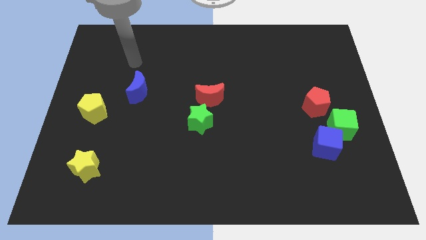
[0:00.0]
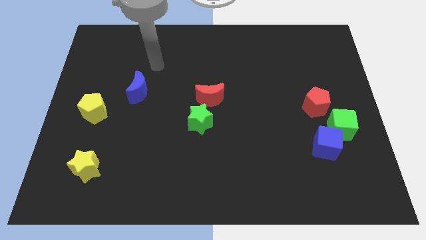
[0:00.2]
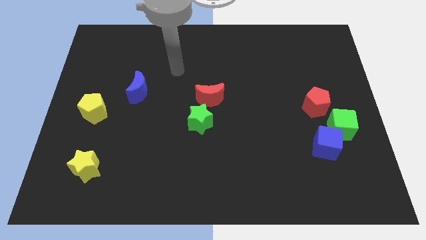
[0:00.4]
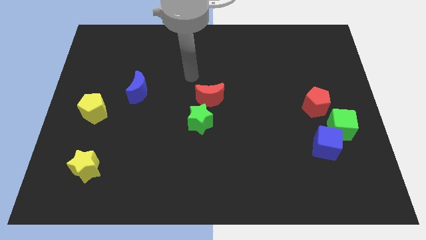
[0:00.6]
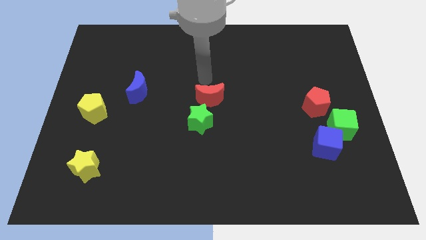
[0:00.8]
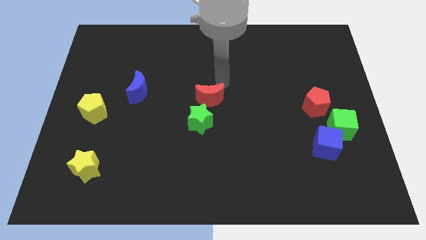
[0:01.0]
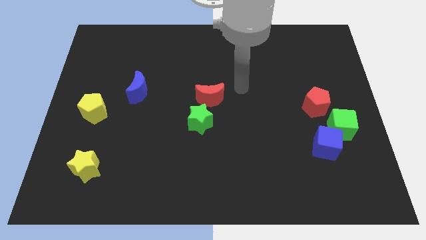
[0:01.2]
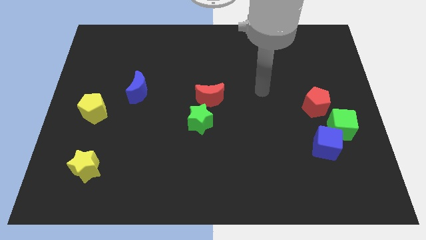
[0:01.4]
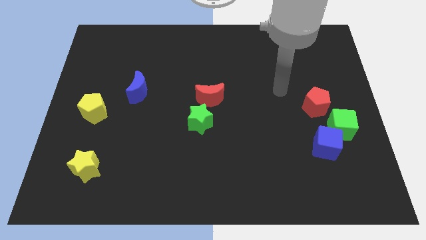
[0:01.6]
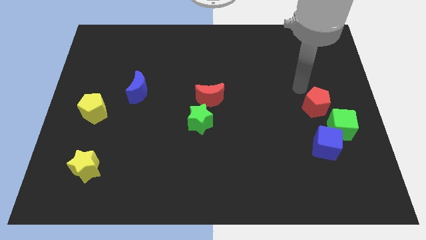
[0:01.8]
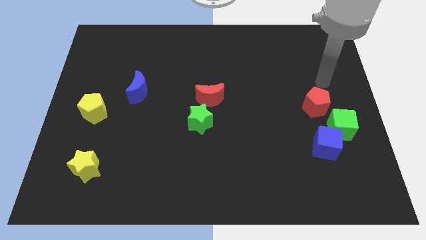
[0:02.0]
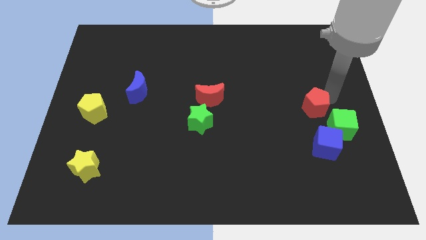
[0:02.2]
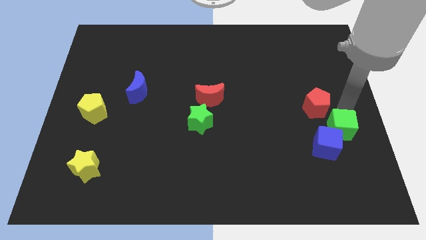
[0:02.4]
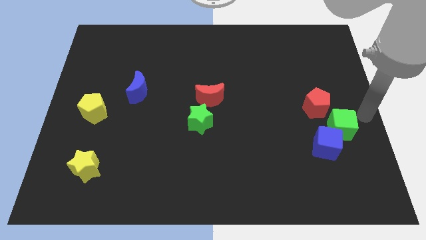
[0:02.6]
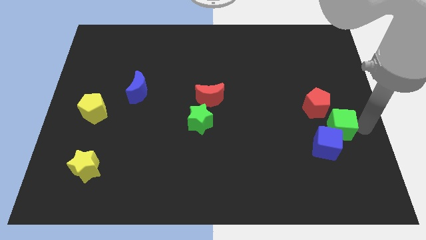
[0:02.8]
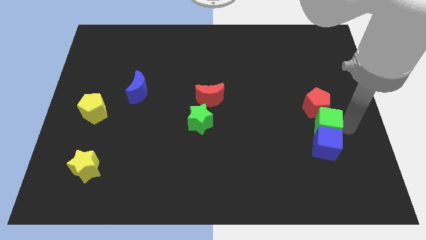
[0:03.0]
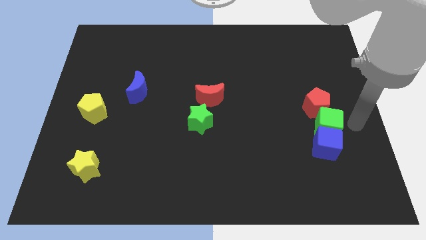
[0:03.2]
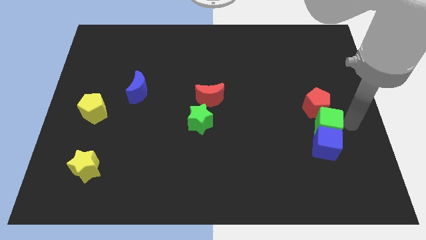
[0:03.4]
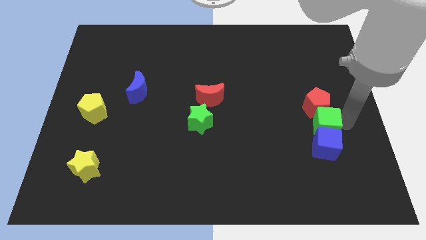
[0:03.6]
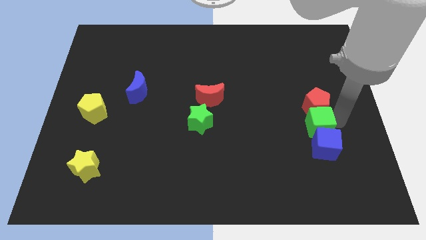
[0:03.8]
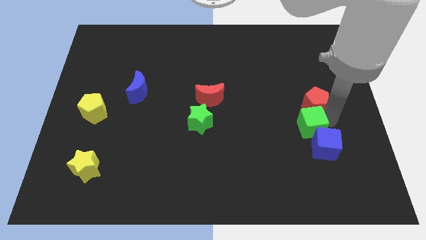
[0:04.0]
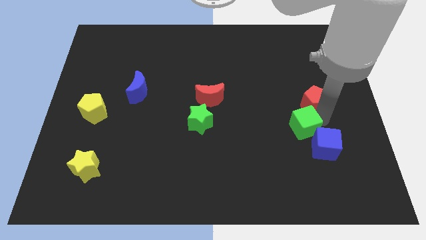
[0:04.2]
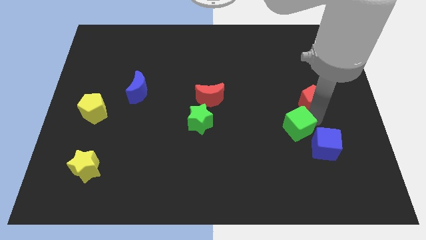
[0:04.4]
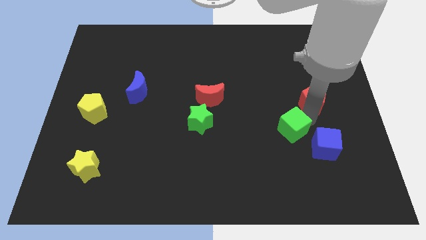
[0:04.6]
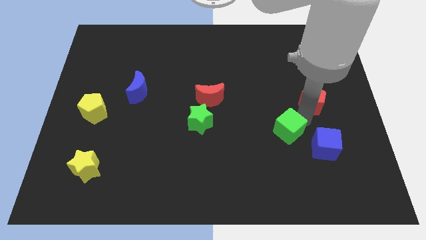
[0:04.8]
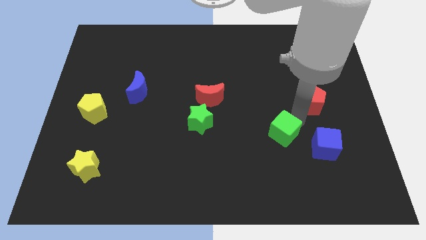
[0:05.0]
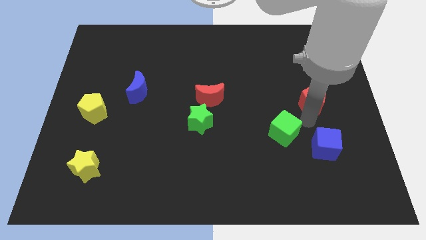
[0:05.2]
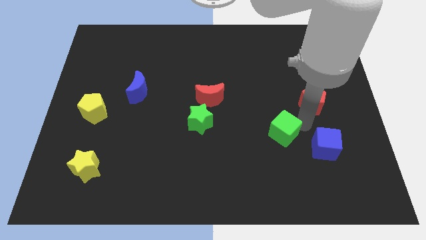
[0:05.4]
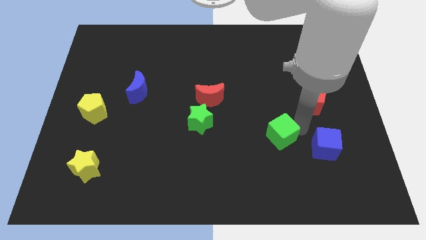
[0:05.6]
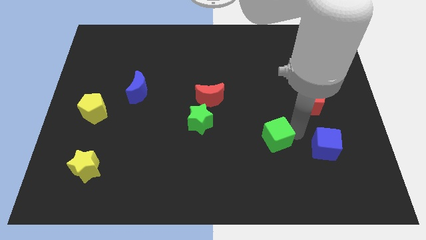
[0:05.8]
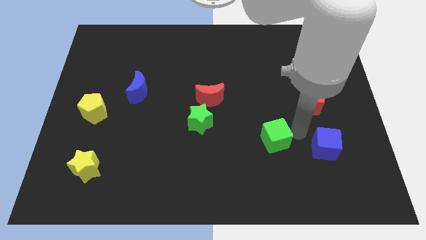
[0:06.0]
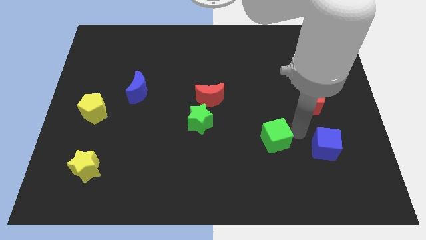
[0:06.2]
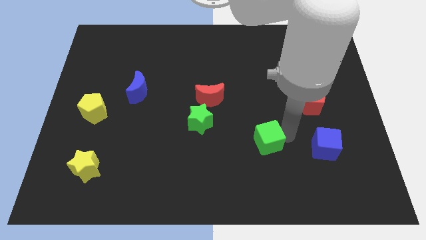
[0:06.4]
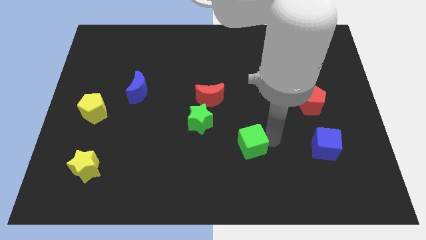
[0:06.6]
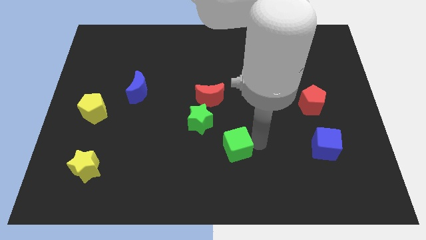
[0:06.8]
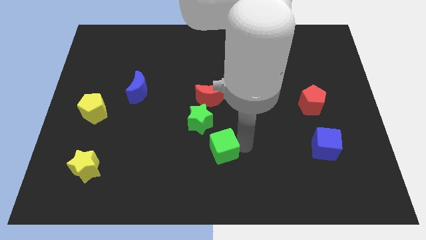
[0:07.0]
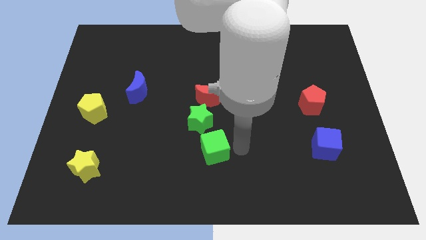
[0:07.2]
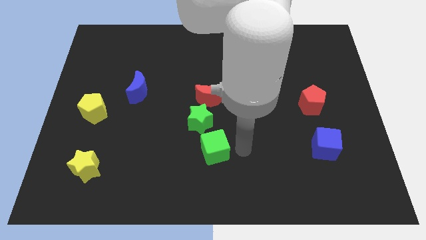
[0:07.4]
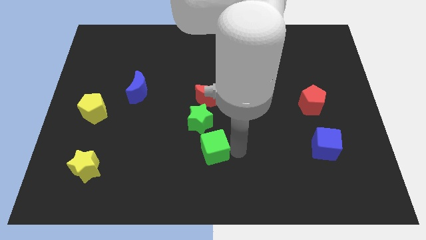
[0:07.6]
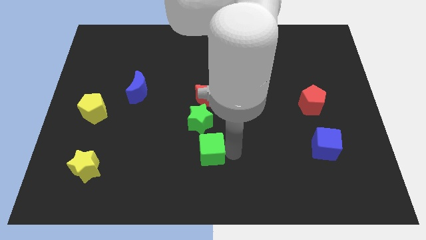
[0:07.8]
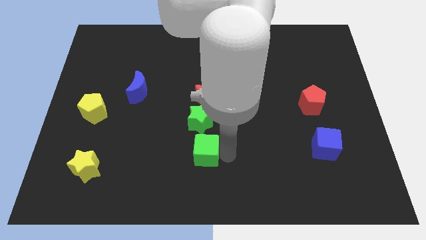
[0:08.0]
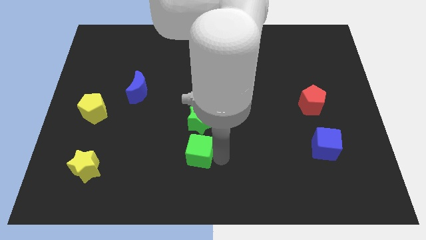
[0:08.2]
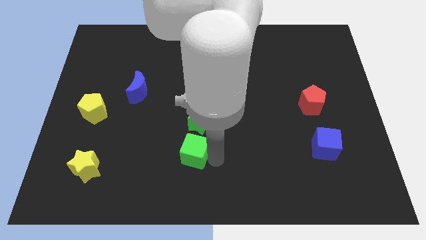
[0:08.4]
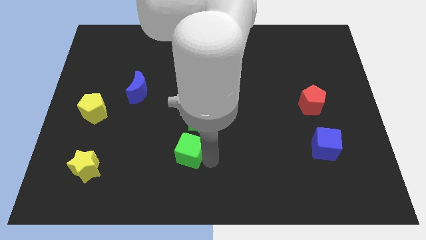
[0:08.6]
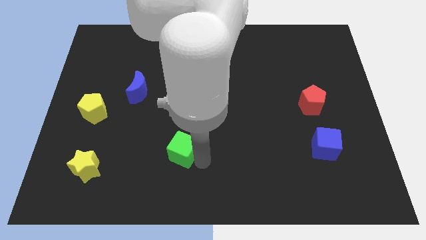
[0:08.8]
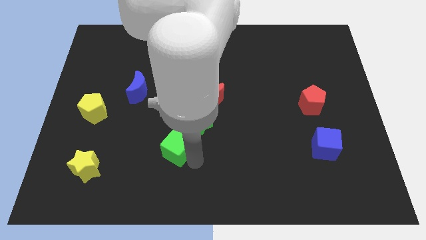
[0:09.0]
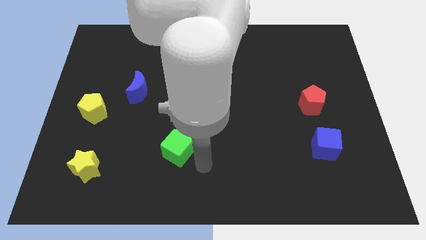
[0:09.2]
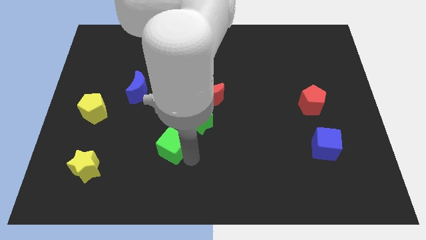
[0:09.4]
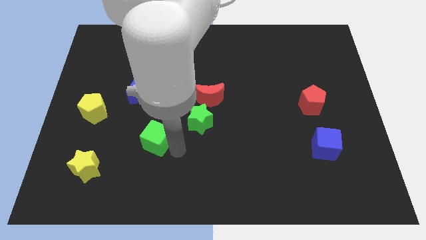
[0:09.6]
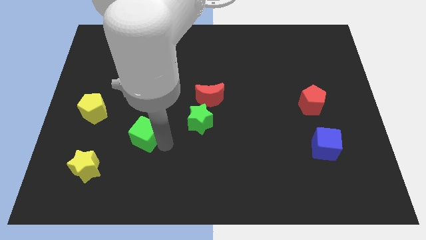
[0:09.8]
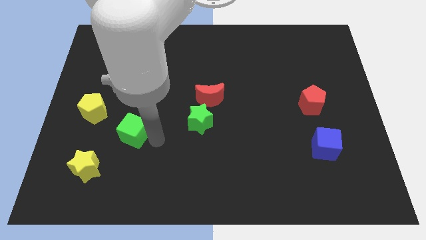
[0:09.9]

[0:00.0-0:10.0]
put the green cube to the bottom right of the yellow pentagon

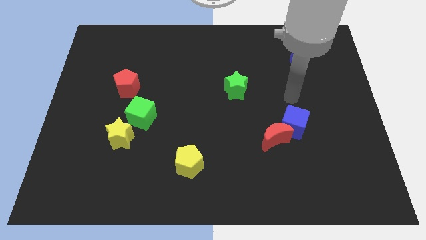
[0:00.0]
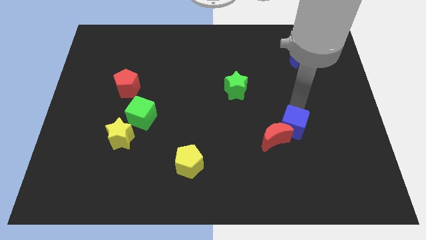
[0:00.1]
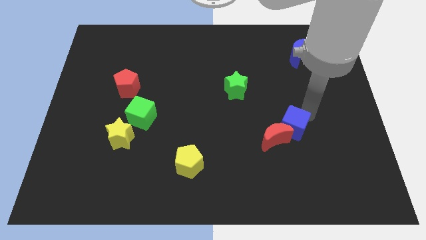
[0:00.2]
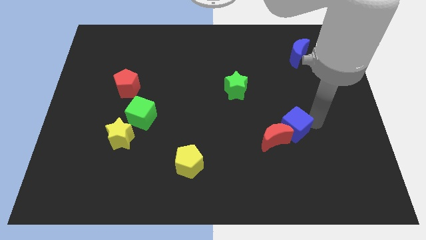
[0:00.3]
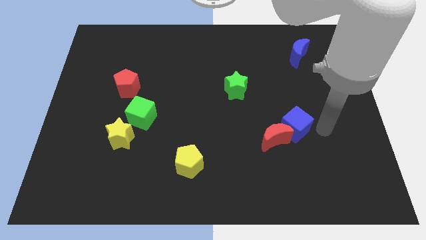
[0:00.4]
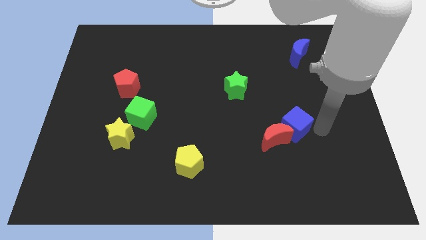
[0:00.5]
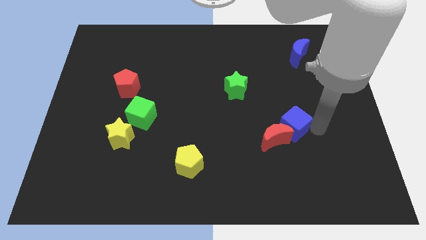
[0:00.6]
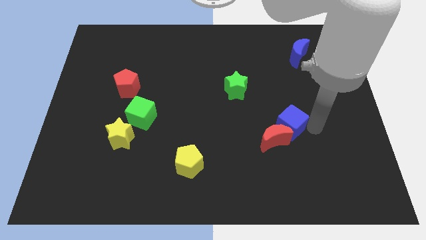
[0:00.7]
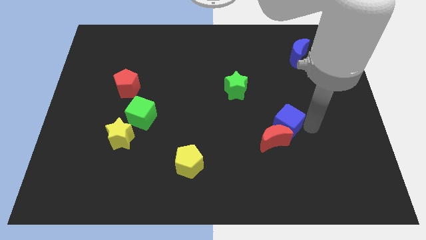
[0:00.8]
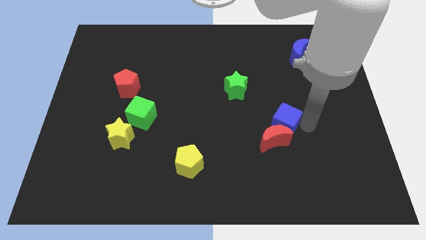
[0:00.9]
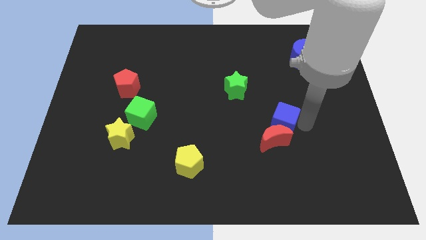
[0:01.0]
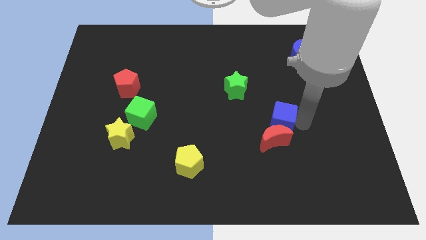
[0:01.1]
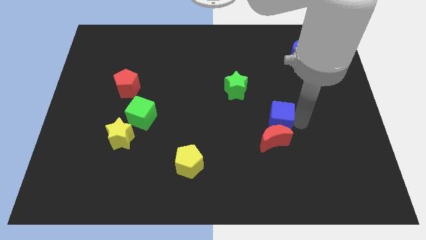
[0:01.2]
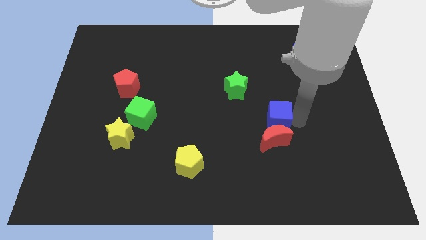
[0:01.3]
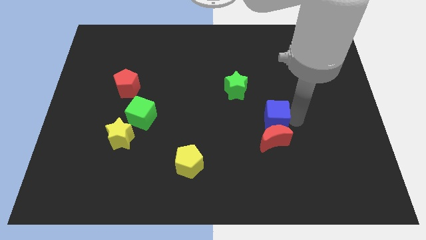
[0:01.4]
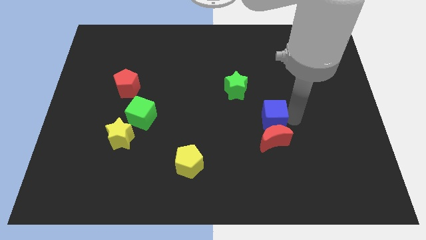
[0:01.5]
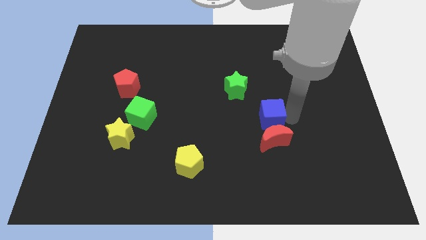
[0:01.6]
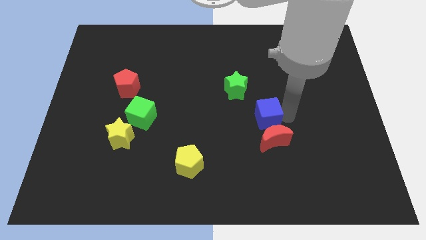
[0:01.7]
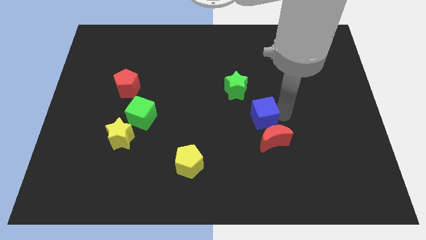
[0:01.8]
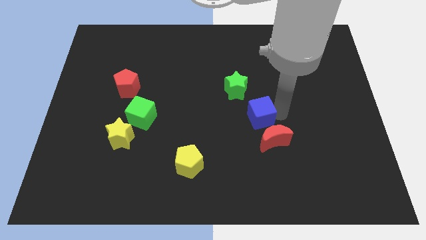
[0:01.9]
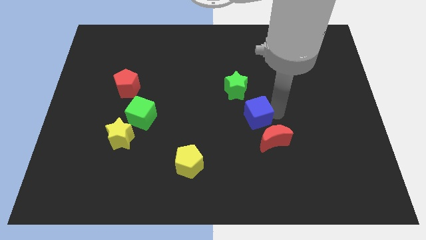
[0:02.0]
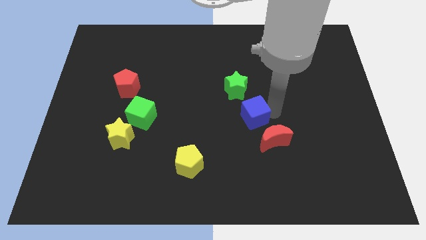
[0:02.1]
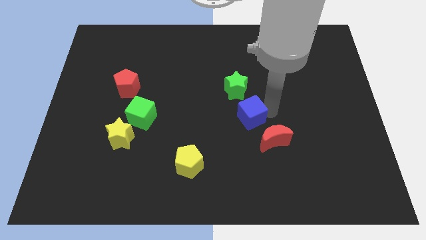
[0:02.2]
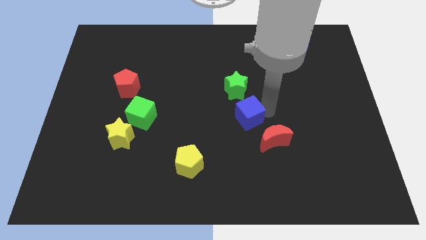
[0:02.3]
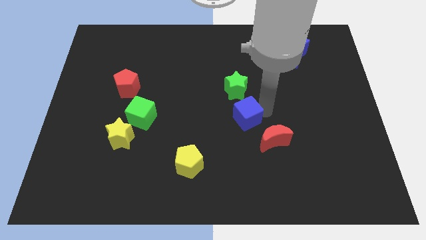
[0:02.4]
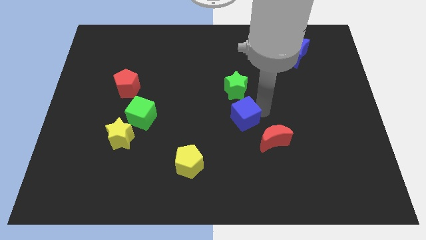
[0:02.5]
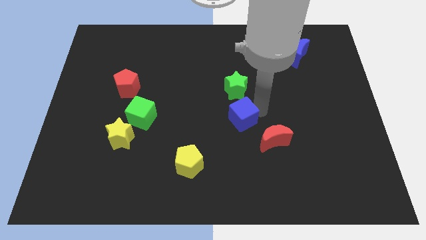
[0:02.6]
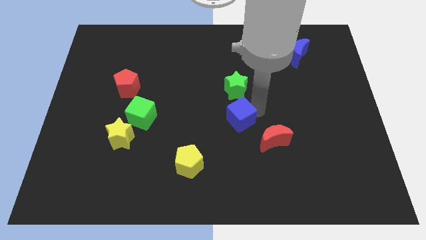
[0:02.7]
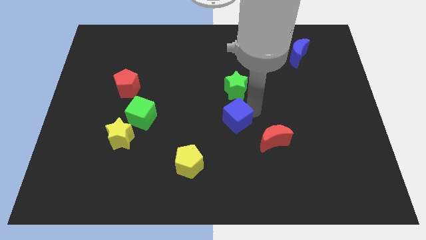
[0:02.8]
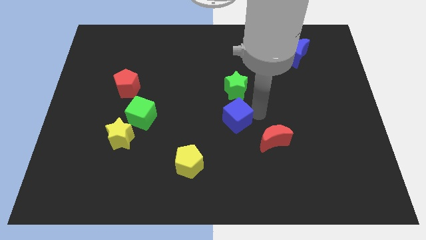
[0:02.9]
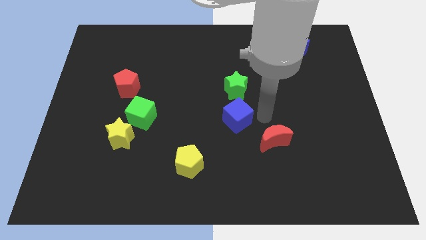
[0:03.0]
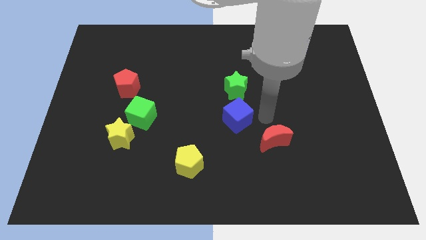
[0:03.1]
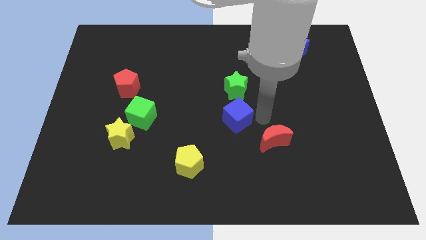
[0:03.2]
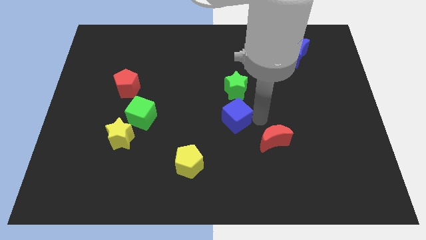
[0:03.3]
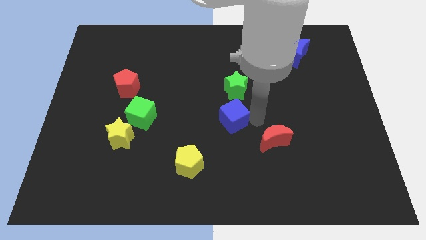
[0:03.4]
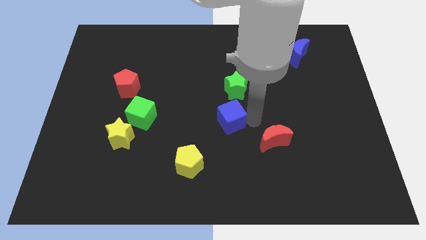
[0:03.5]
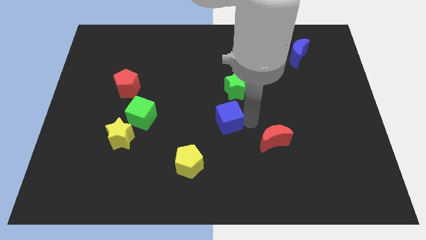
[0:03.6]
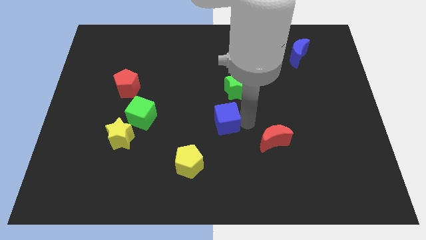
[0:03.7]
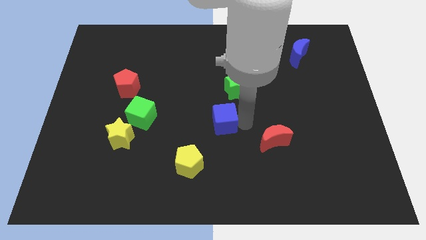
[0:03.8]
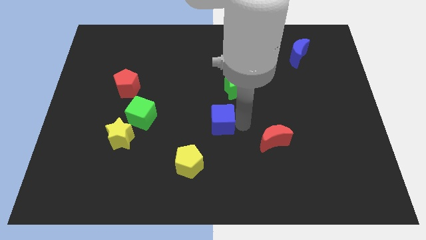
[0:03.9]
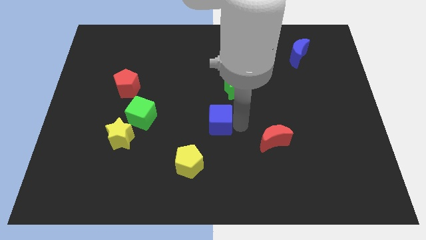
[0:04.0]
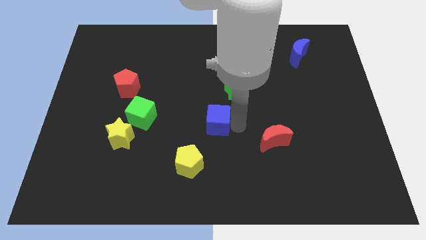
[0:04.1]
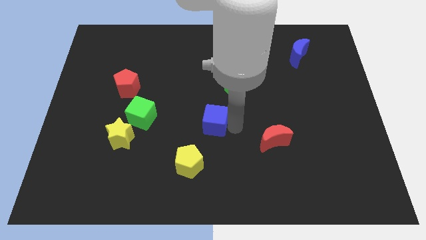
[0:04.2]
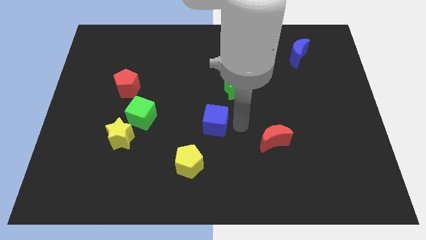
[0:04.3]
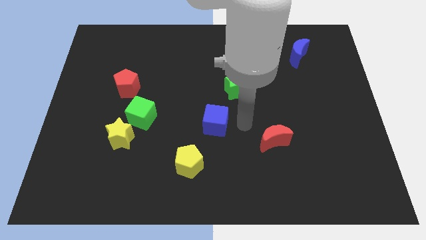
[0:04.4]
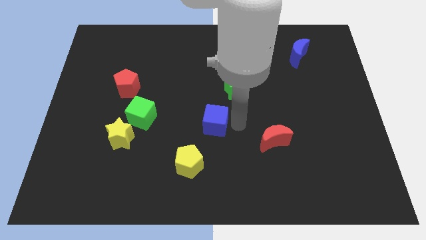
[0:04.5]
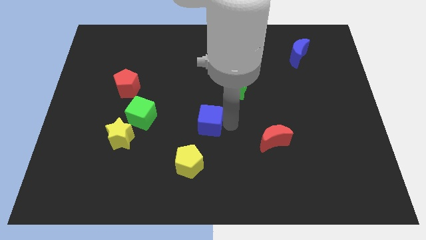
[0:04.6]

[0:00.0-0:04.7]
slide the blue cube above the yellow pentagon
